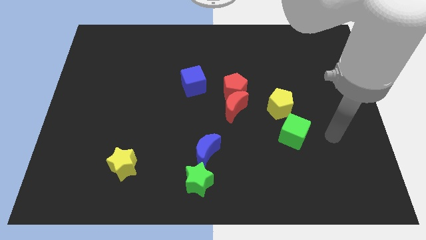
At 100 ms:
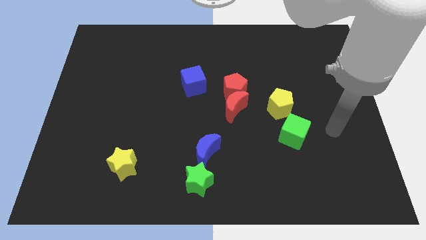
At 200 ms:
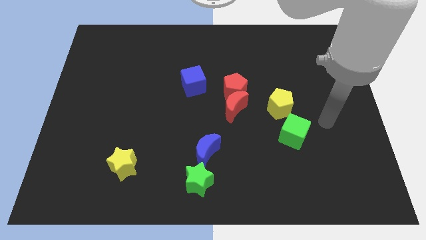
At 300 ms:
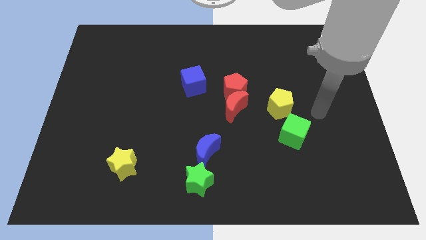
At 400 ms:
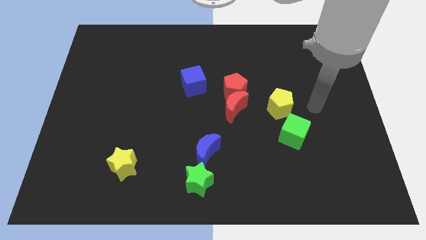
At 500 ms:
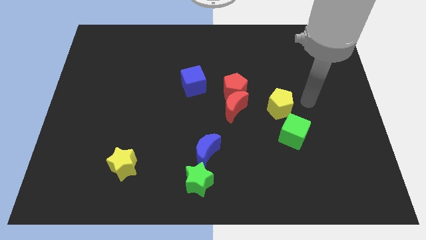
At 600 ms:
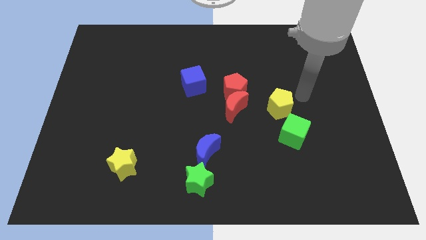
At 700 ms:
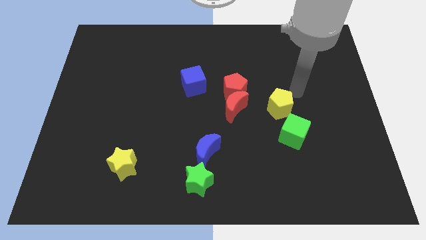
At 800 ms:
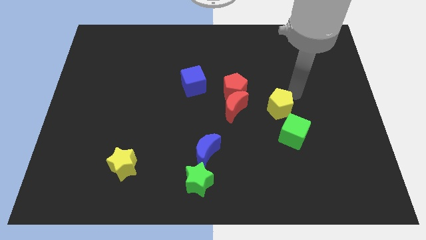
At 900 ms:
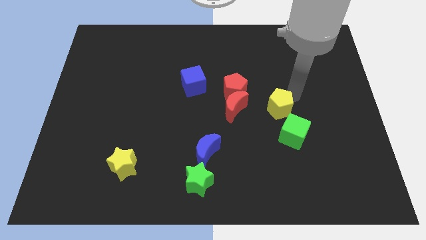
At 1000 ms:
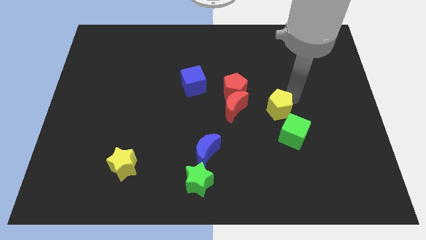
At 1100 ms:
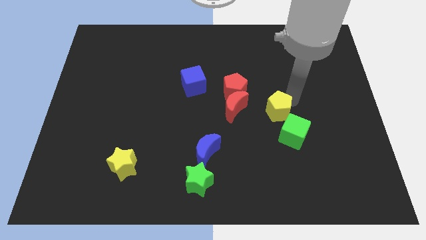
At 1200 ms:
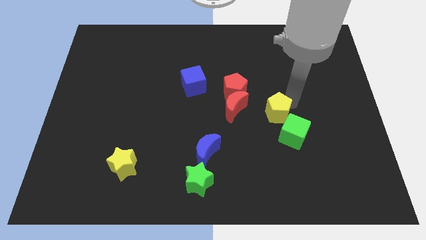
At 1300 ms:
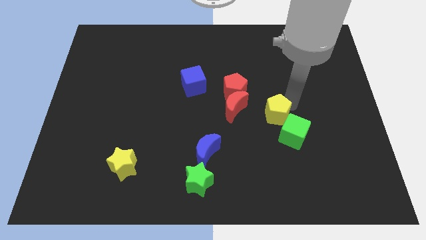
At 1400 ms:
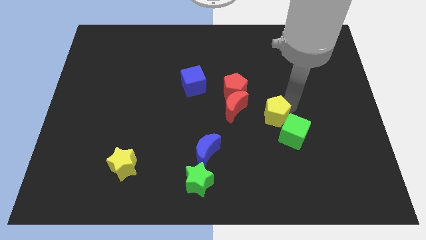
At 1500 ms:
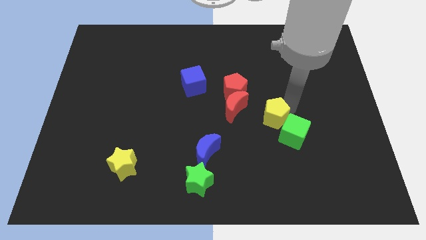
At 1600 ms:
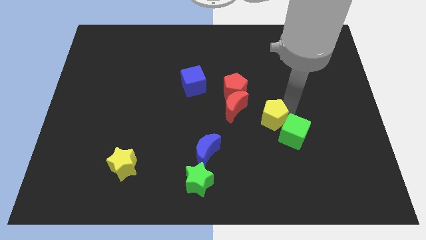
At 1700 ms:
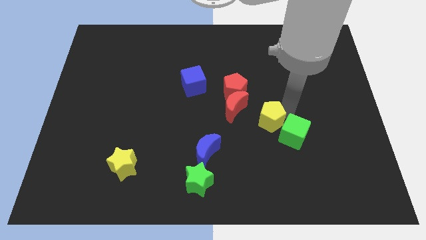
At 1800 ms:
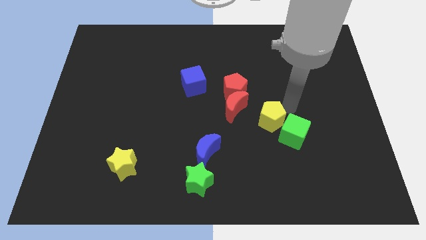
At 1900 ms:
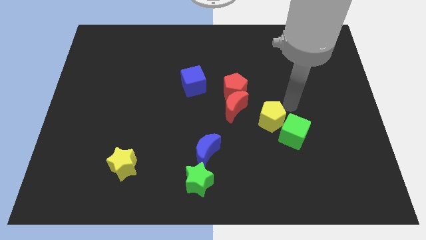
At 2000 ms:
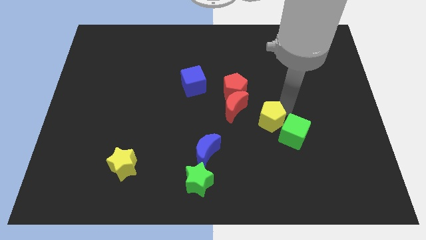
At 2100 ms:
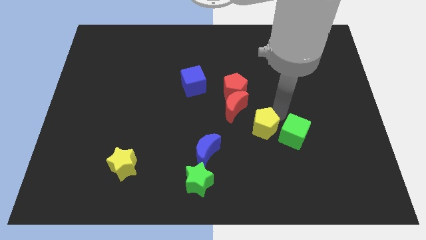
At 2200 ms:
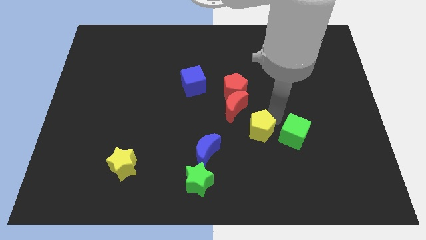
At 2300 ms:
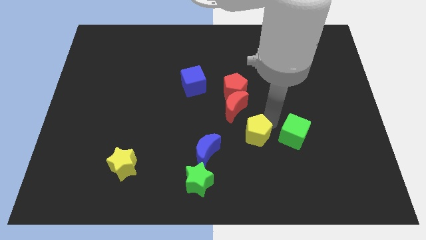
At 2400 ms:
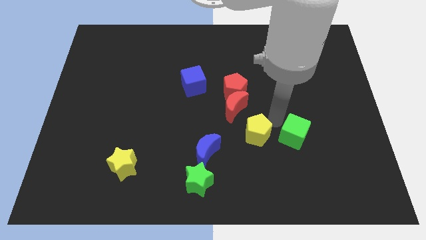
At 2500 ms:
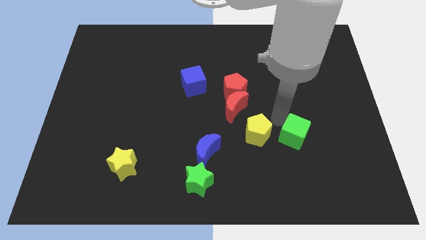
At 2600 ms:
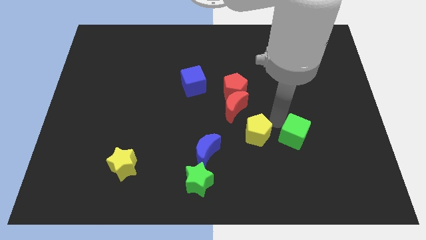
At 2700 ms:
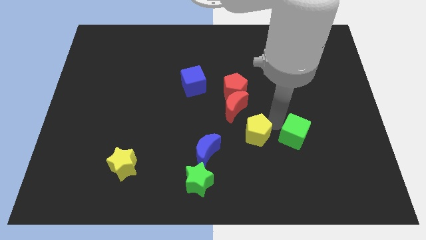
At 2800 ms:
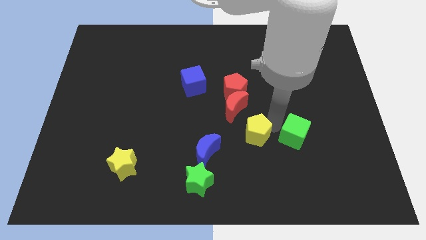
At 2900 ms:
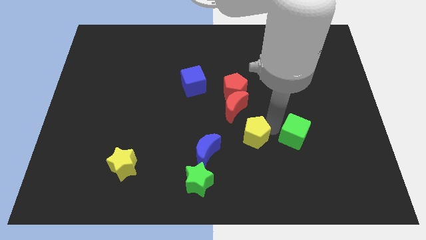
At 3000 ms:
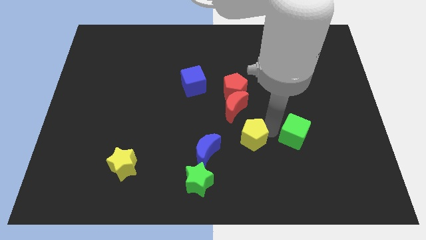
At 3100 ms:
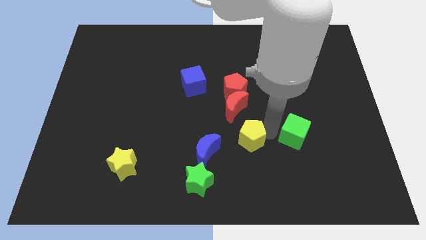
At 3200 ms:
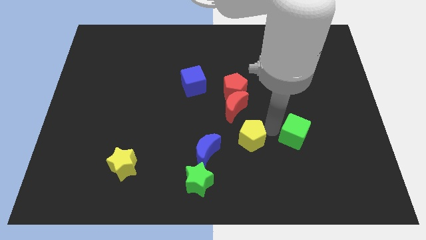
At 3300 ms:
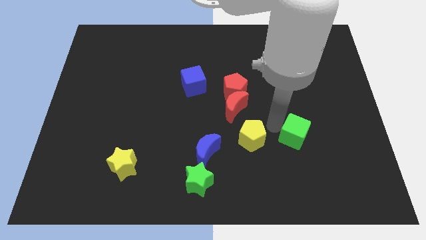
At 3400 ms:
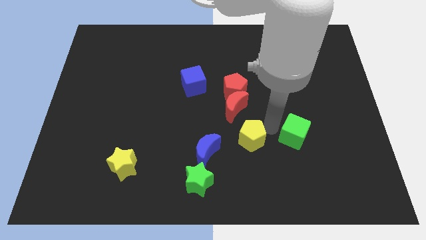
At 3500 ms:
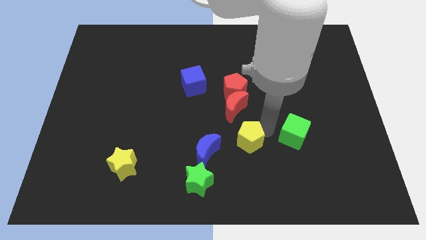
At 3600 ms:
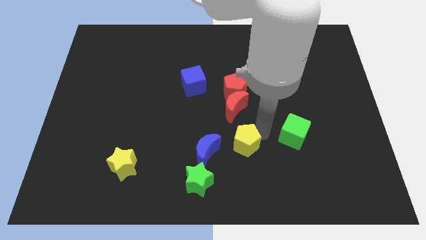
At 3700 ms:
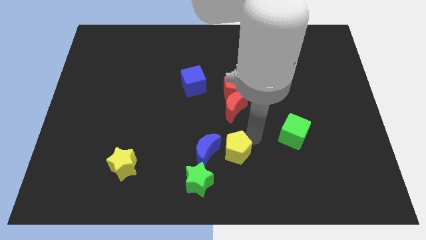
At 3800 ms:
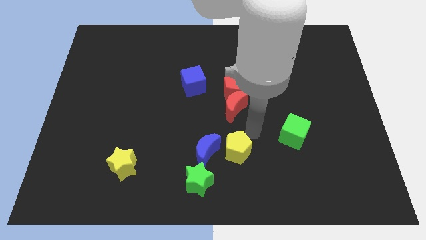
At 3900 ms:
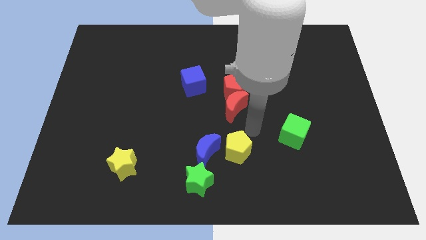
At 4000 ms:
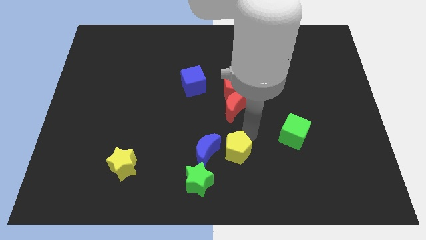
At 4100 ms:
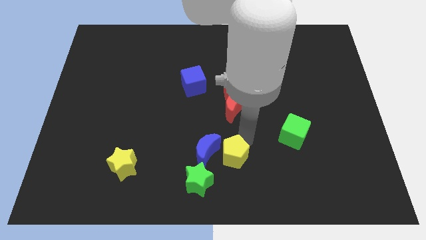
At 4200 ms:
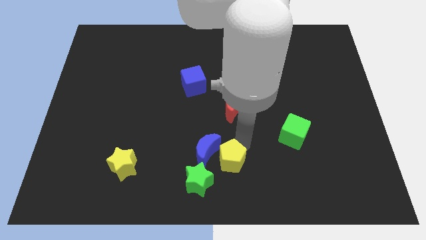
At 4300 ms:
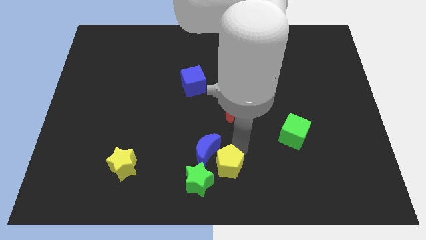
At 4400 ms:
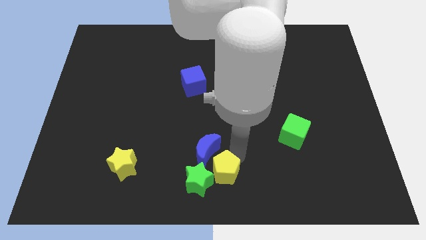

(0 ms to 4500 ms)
move the yellow pentagon towards the green star

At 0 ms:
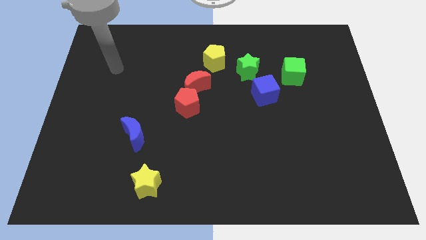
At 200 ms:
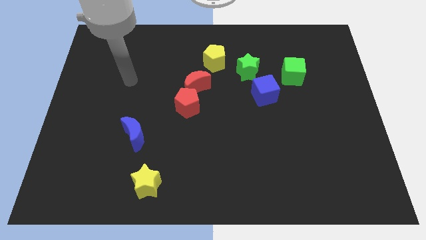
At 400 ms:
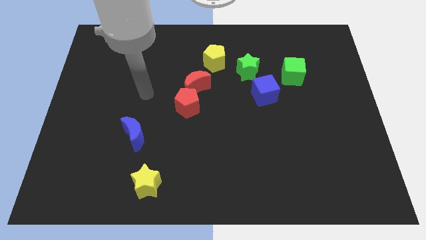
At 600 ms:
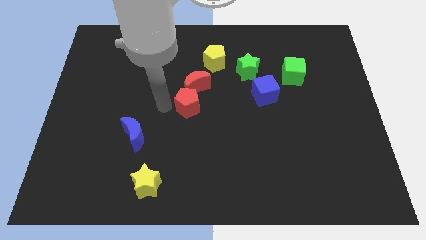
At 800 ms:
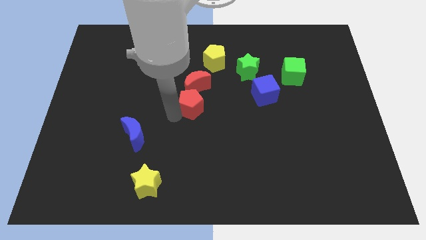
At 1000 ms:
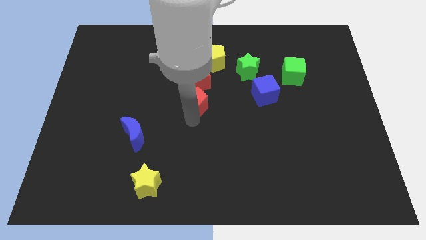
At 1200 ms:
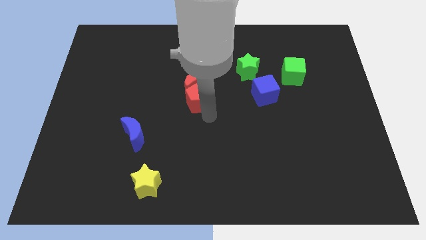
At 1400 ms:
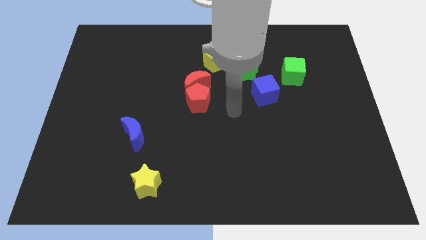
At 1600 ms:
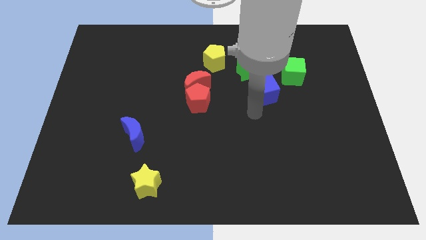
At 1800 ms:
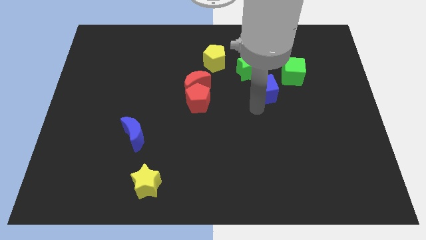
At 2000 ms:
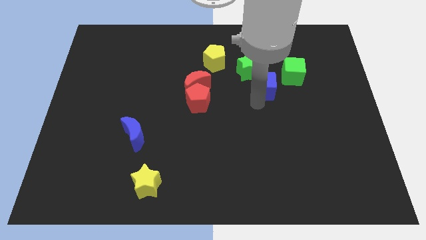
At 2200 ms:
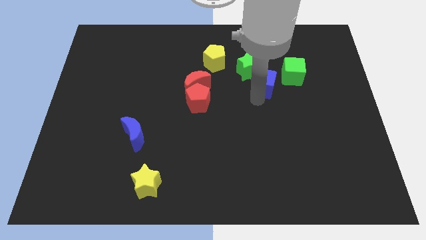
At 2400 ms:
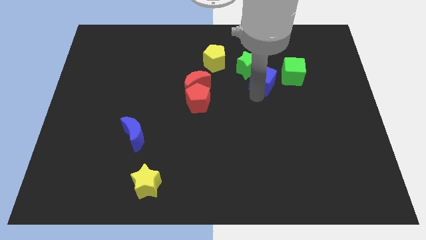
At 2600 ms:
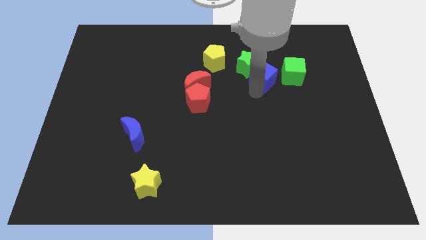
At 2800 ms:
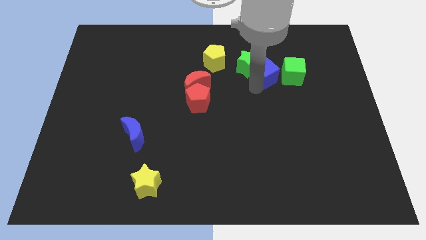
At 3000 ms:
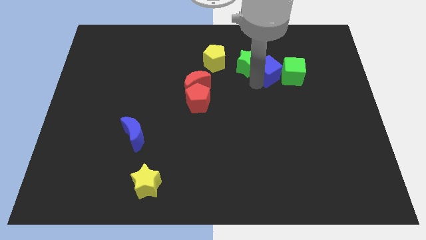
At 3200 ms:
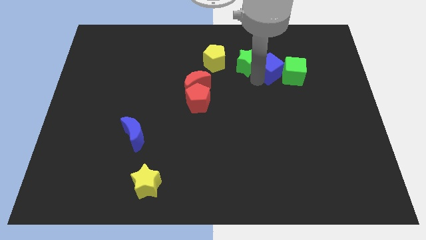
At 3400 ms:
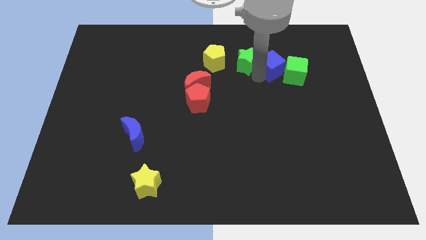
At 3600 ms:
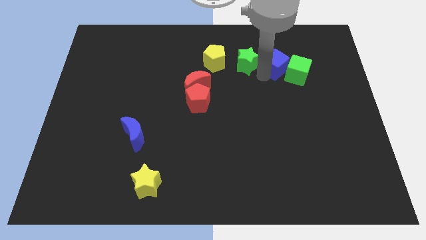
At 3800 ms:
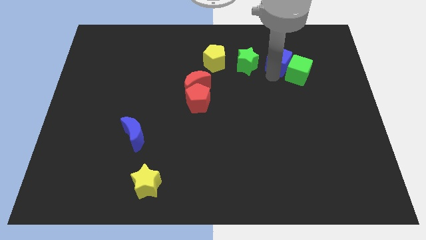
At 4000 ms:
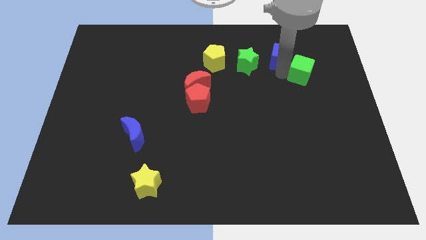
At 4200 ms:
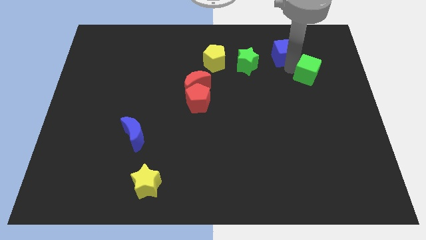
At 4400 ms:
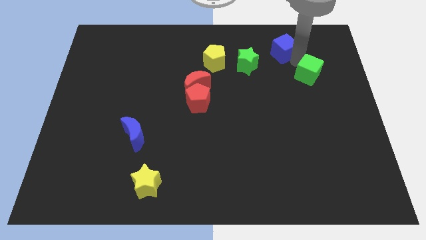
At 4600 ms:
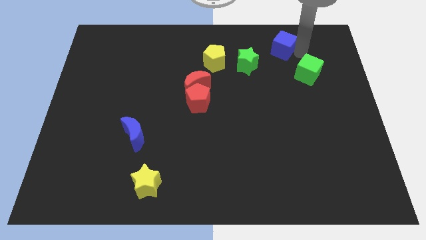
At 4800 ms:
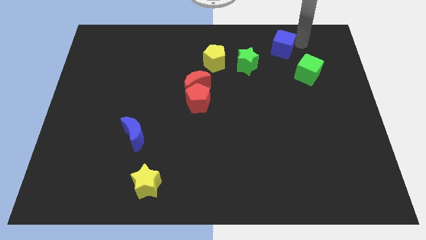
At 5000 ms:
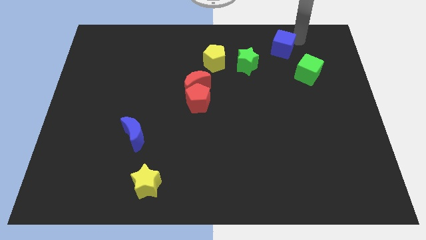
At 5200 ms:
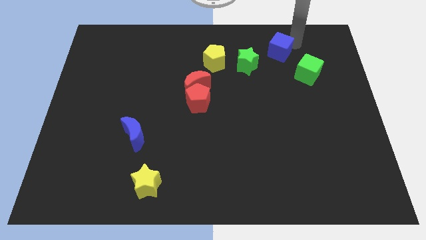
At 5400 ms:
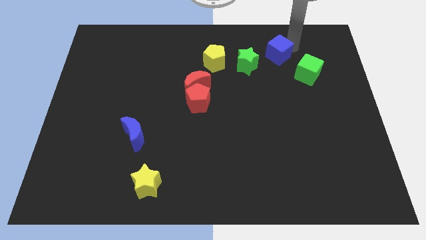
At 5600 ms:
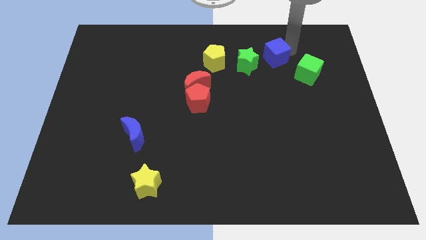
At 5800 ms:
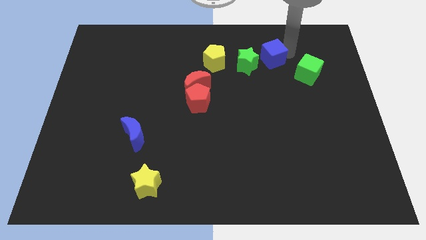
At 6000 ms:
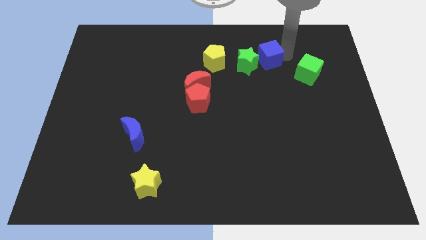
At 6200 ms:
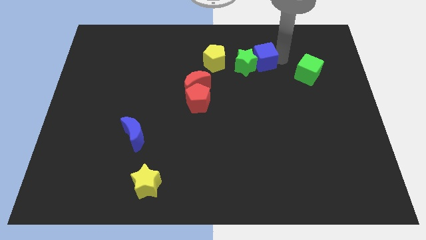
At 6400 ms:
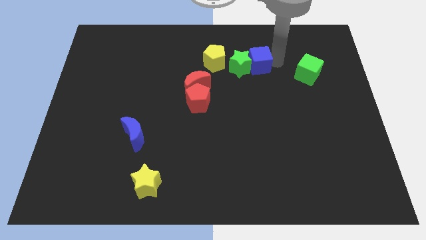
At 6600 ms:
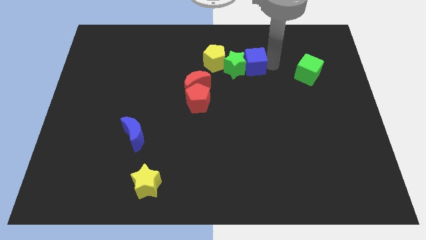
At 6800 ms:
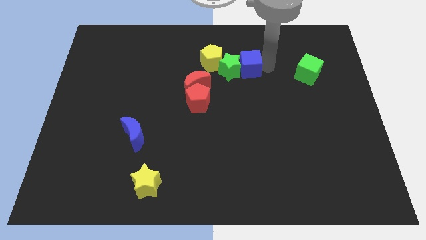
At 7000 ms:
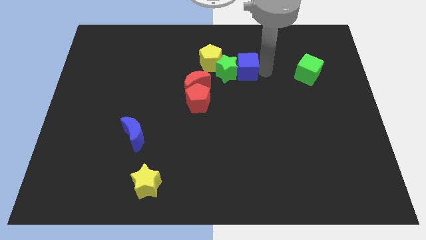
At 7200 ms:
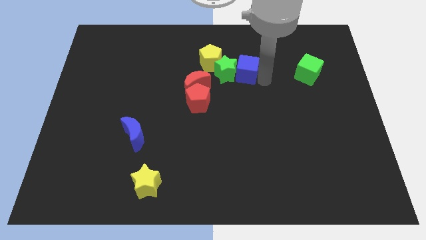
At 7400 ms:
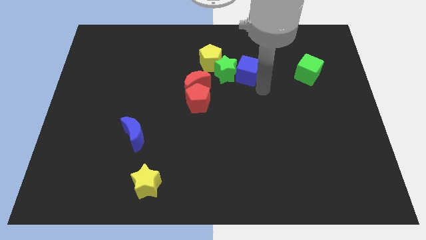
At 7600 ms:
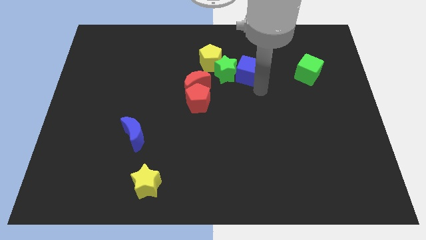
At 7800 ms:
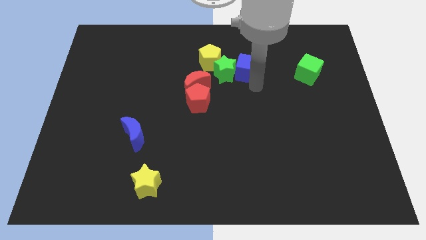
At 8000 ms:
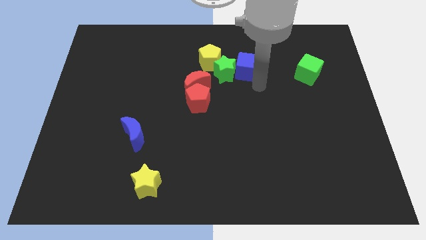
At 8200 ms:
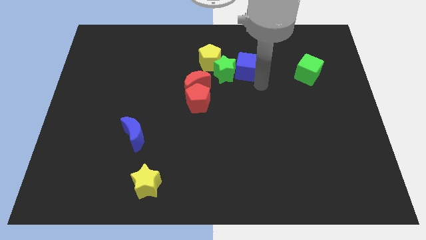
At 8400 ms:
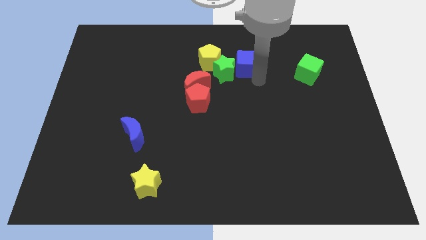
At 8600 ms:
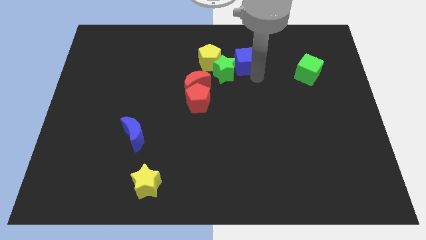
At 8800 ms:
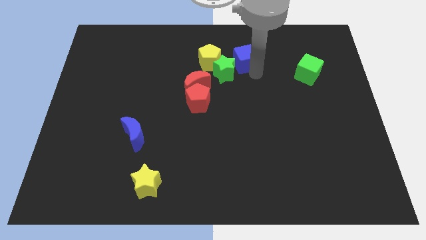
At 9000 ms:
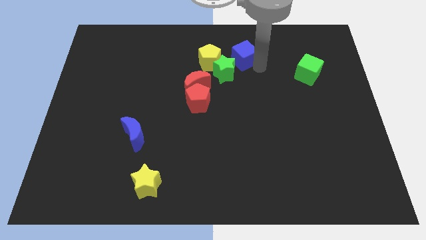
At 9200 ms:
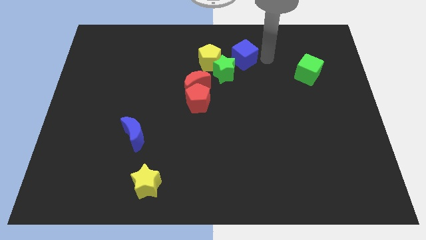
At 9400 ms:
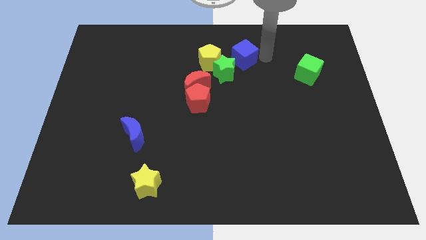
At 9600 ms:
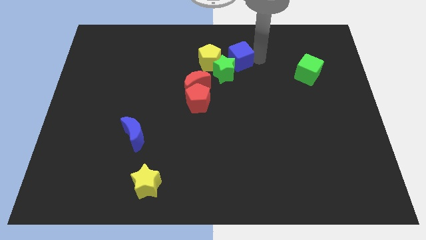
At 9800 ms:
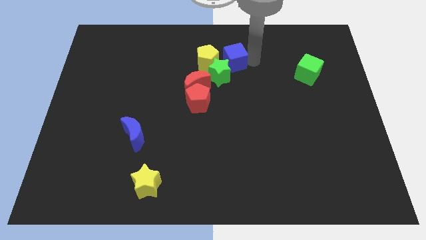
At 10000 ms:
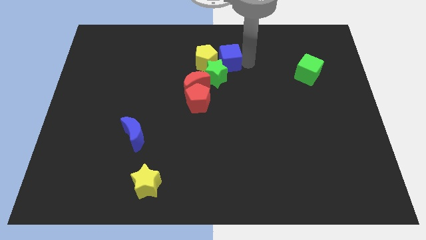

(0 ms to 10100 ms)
push the blue cube to the yellow pentagon
